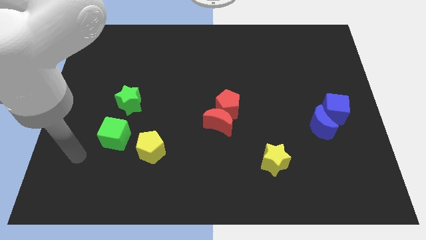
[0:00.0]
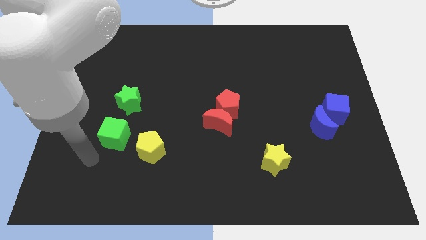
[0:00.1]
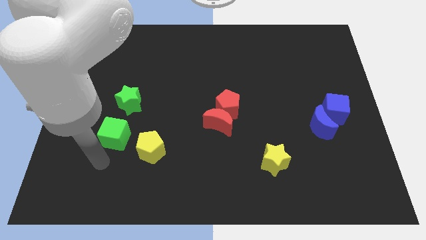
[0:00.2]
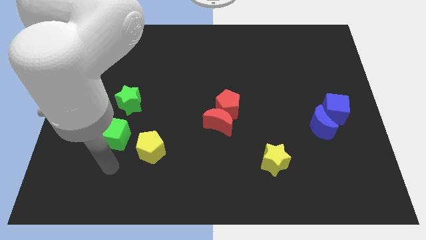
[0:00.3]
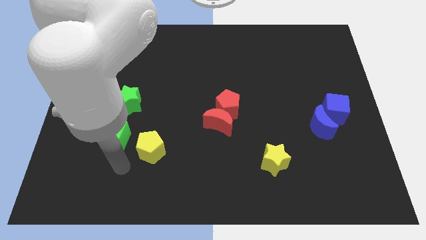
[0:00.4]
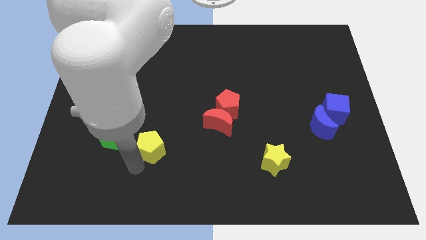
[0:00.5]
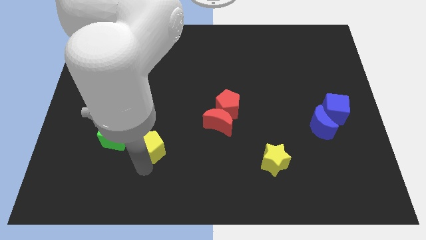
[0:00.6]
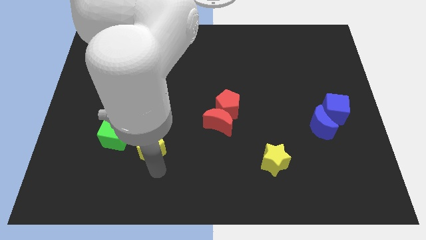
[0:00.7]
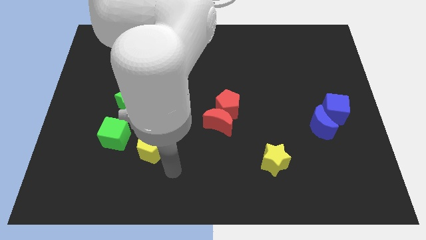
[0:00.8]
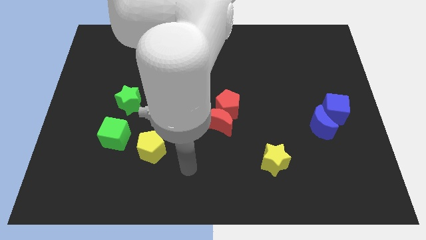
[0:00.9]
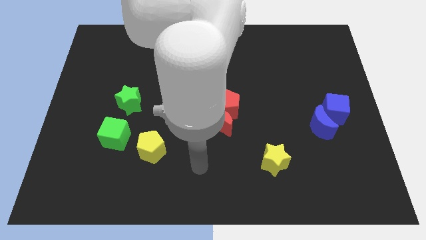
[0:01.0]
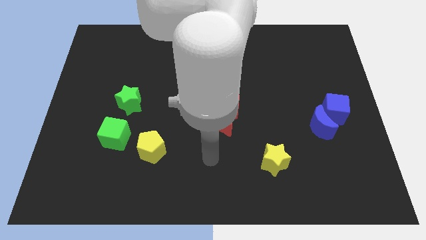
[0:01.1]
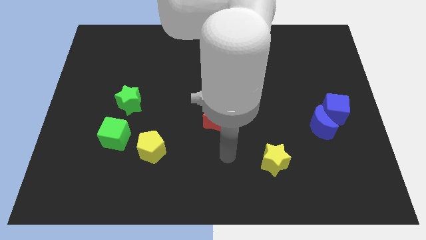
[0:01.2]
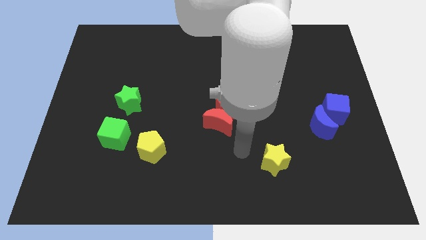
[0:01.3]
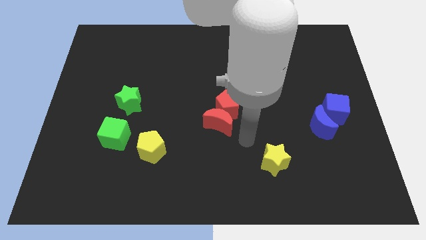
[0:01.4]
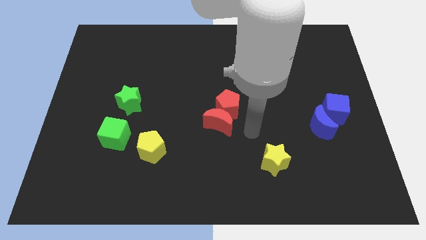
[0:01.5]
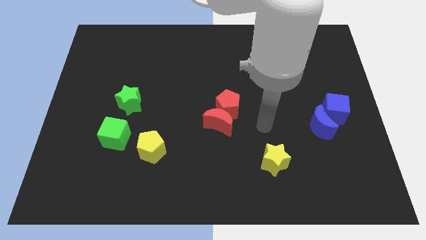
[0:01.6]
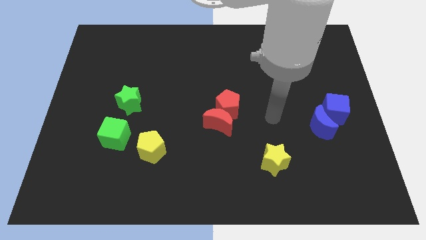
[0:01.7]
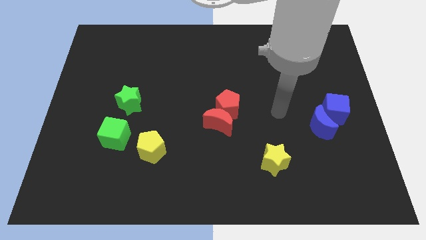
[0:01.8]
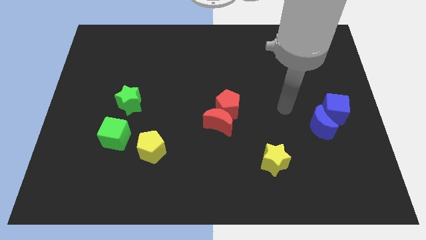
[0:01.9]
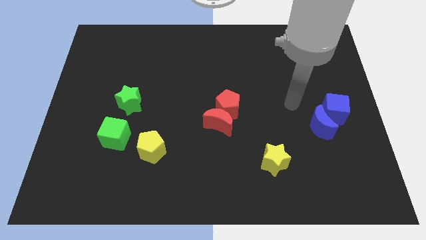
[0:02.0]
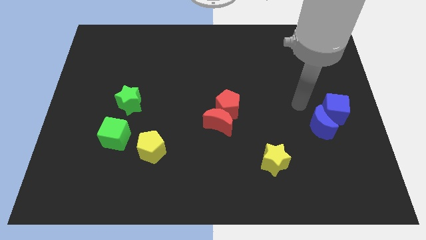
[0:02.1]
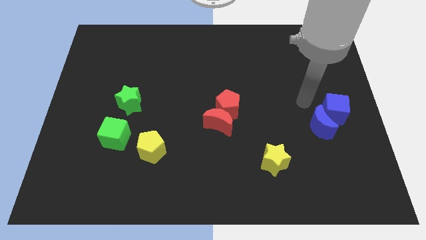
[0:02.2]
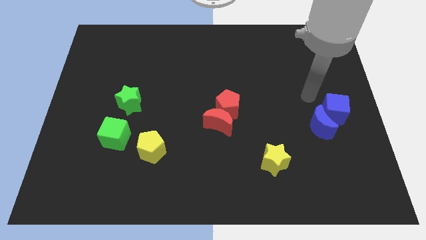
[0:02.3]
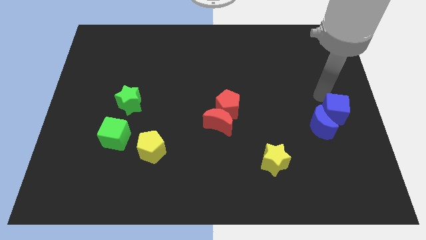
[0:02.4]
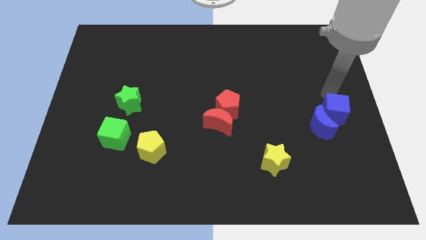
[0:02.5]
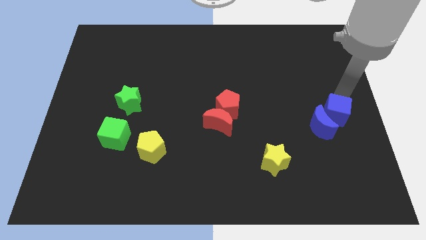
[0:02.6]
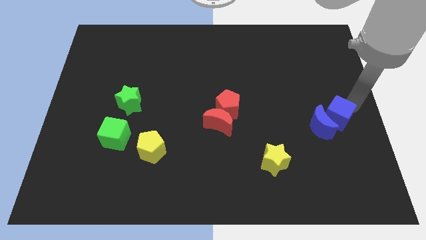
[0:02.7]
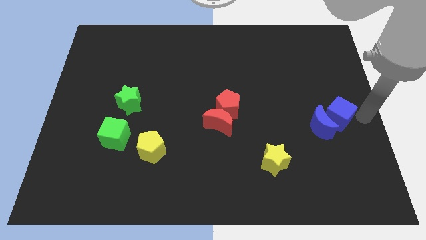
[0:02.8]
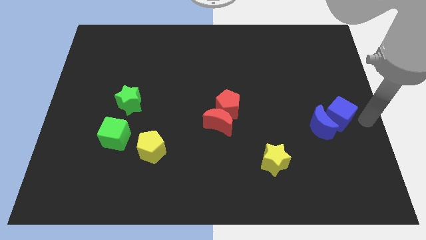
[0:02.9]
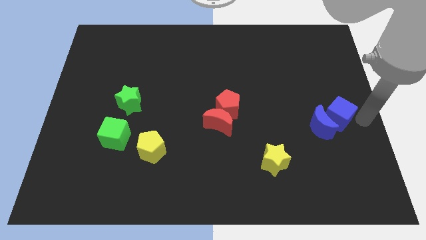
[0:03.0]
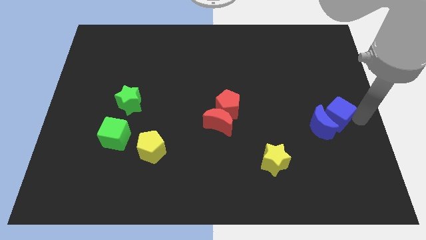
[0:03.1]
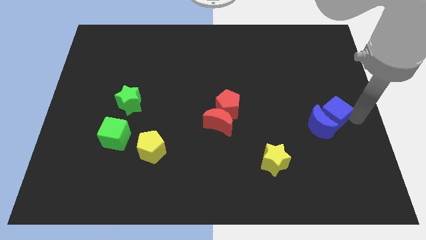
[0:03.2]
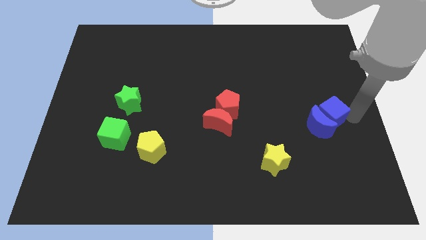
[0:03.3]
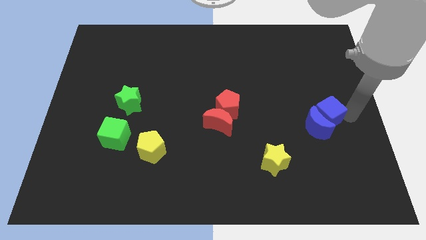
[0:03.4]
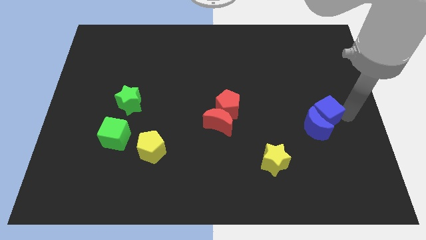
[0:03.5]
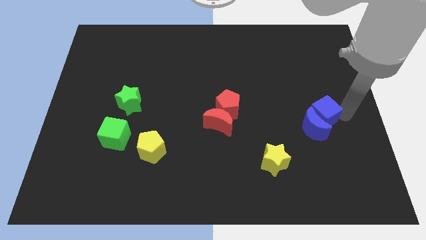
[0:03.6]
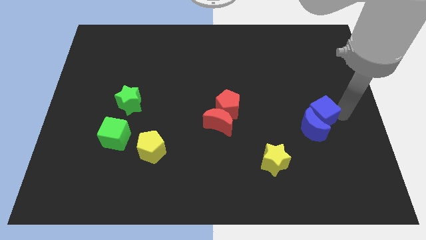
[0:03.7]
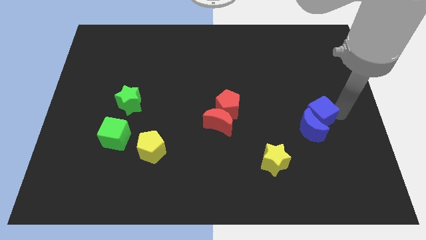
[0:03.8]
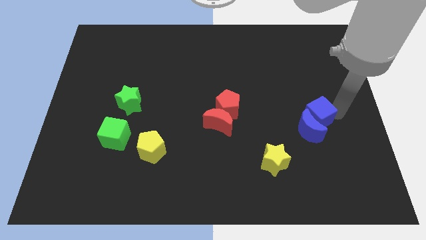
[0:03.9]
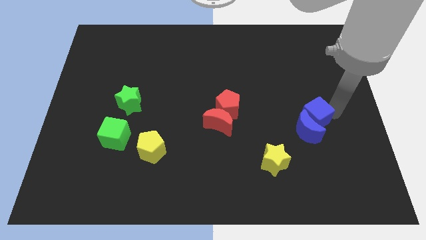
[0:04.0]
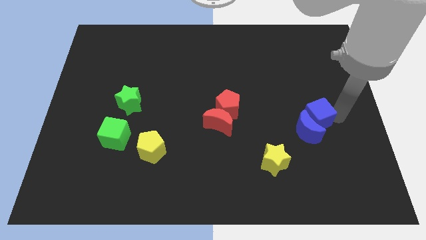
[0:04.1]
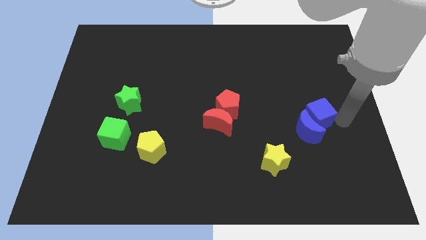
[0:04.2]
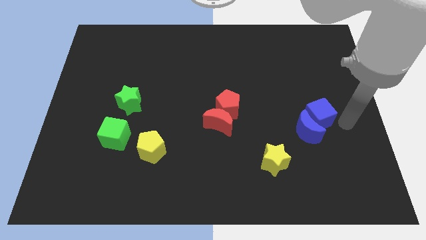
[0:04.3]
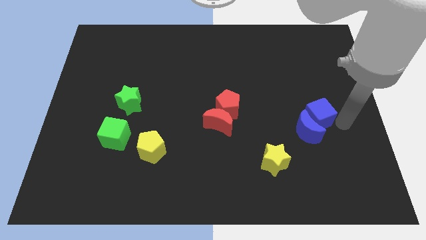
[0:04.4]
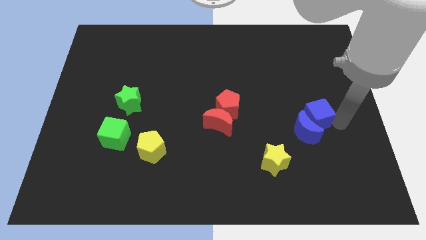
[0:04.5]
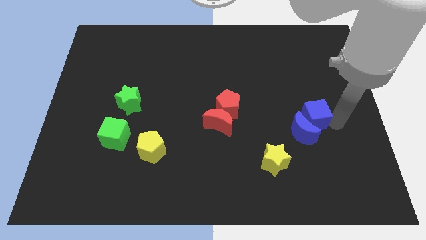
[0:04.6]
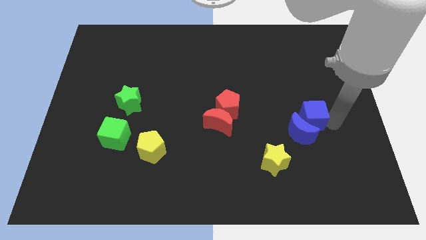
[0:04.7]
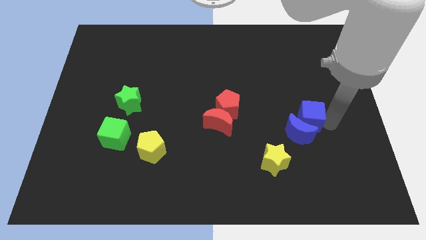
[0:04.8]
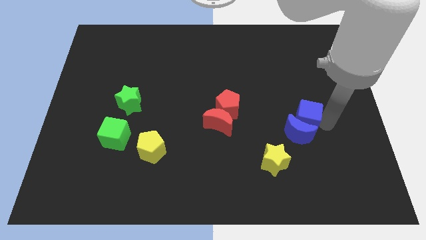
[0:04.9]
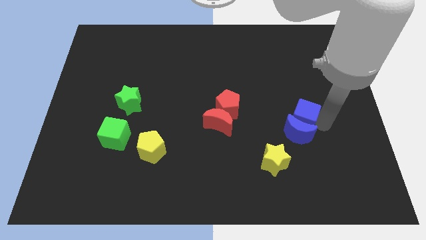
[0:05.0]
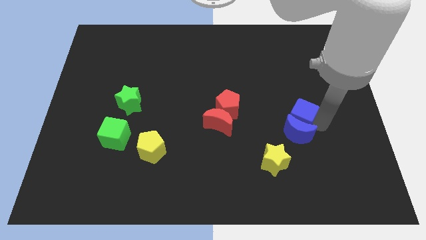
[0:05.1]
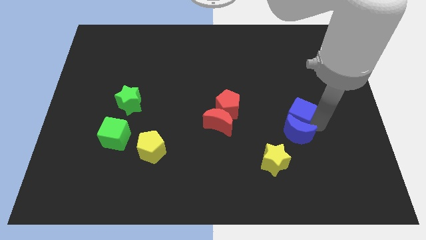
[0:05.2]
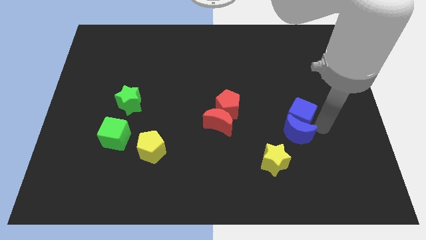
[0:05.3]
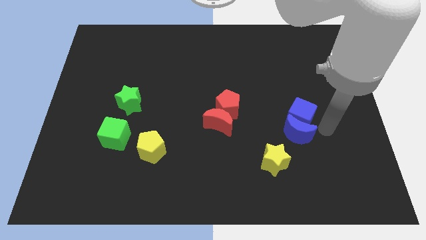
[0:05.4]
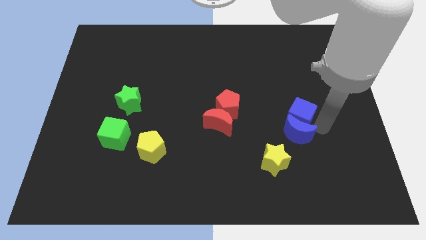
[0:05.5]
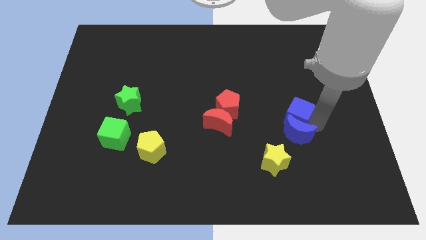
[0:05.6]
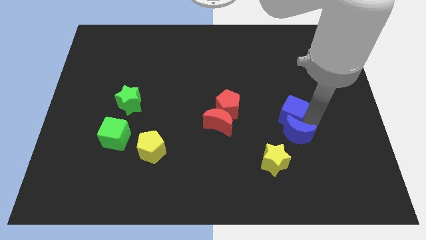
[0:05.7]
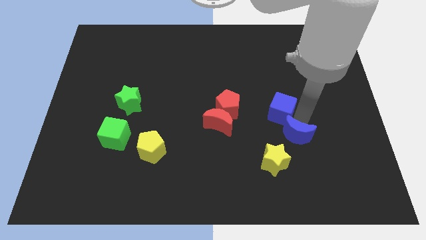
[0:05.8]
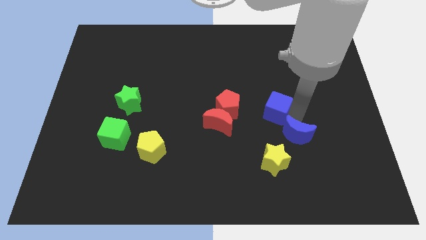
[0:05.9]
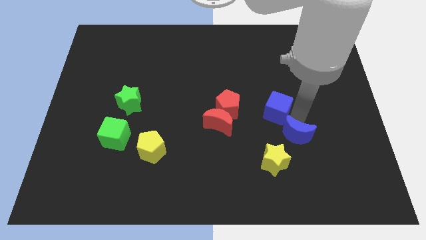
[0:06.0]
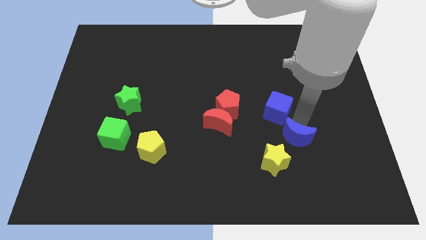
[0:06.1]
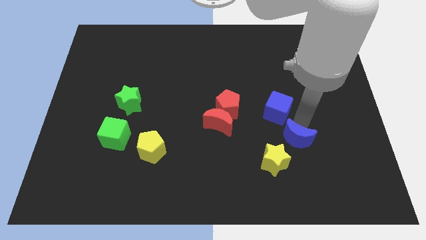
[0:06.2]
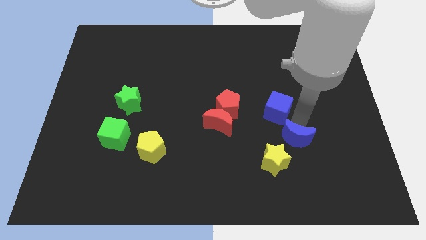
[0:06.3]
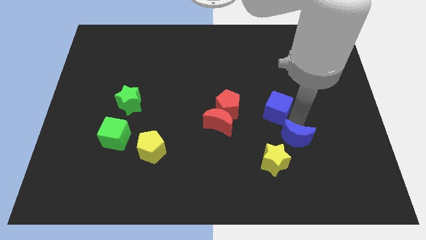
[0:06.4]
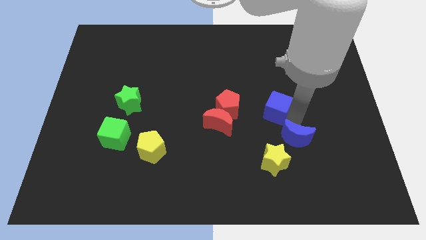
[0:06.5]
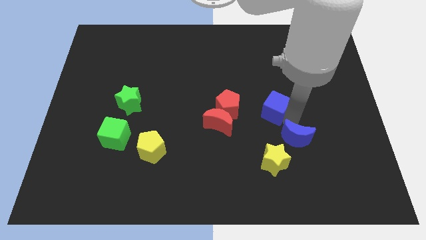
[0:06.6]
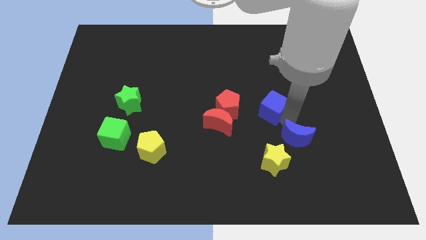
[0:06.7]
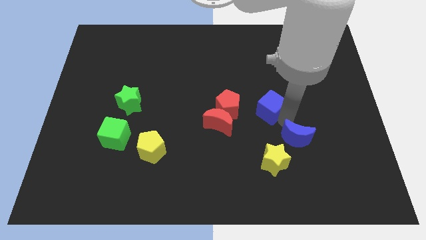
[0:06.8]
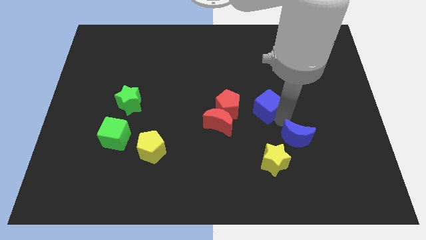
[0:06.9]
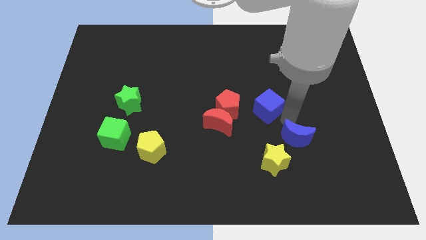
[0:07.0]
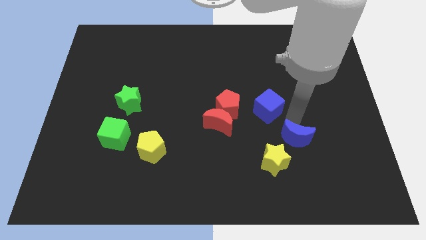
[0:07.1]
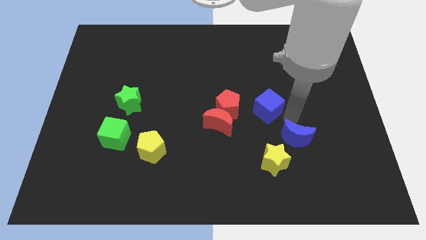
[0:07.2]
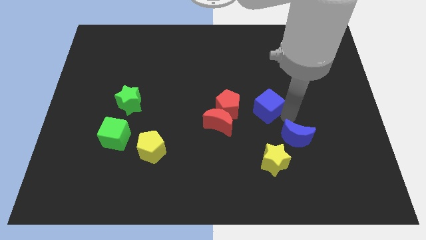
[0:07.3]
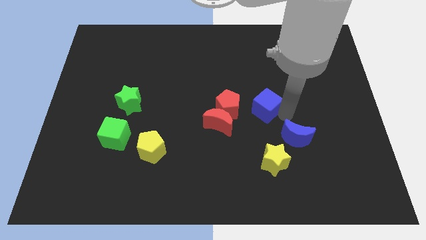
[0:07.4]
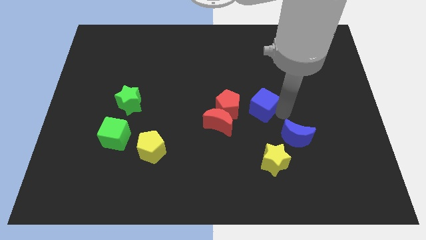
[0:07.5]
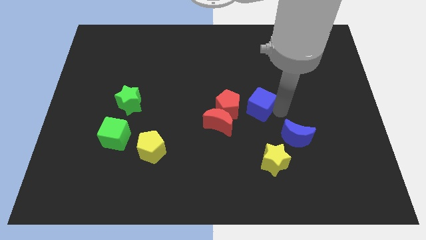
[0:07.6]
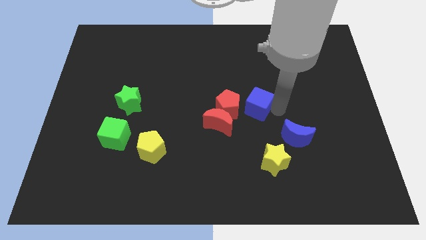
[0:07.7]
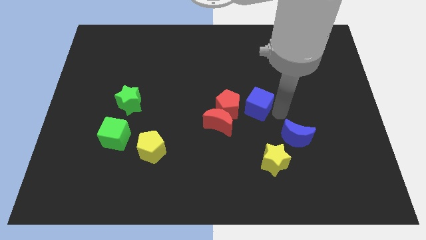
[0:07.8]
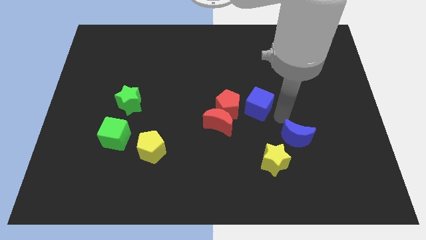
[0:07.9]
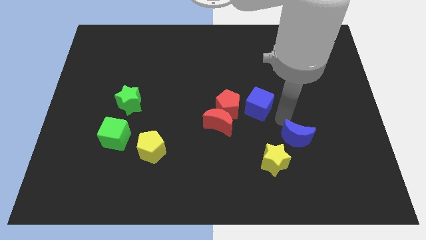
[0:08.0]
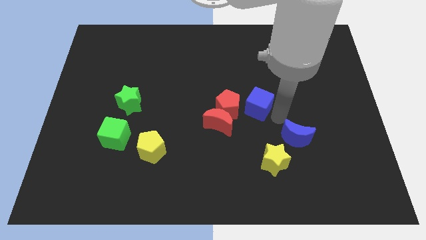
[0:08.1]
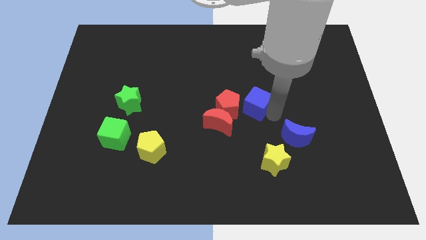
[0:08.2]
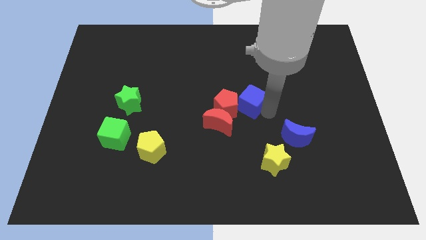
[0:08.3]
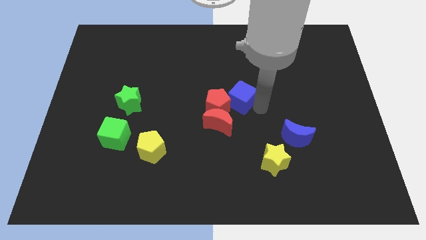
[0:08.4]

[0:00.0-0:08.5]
slide the blue cube left
